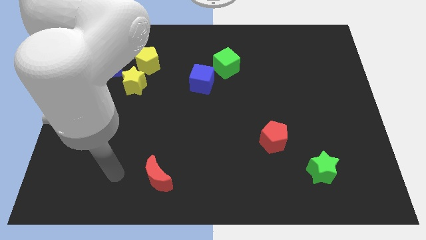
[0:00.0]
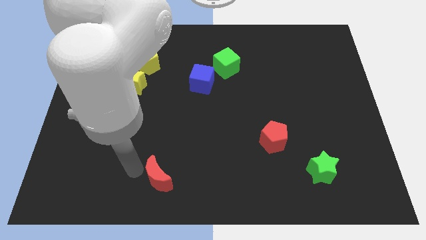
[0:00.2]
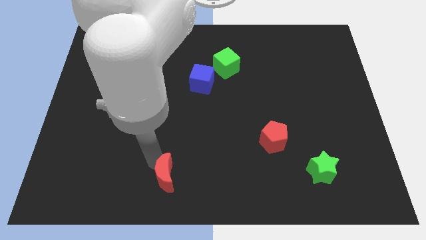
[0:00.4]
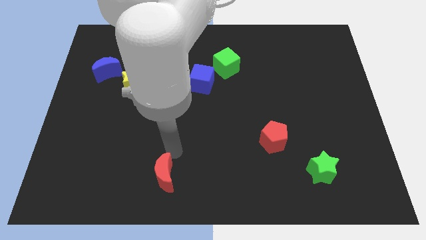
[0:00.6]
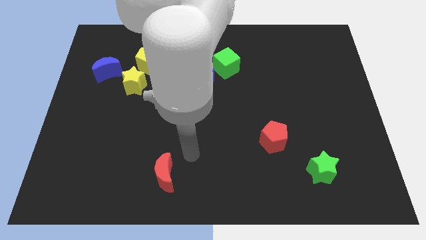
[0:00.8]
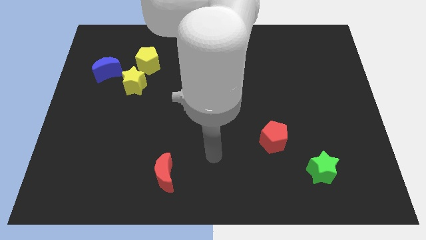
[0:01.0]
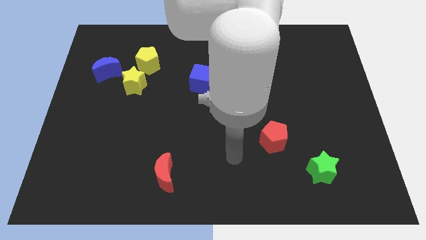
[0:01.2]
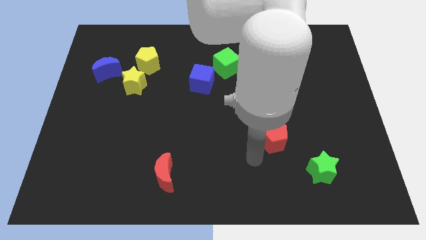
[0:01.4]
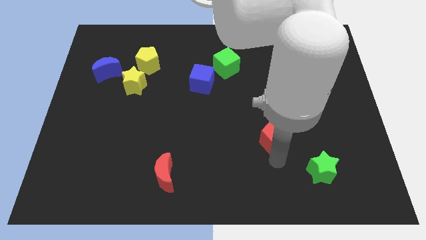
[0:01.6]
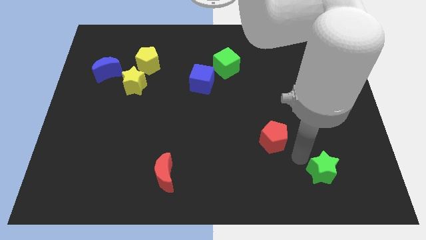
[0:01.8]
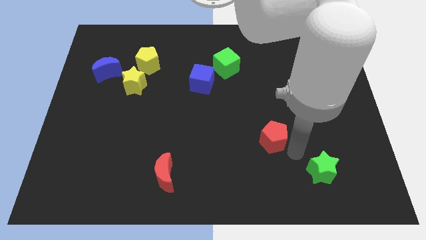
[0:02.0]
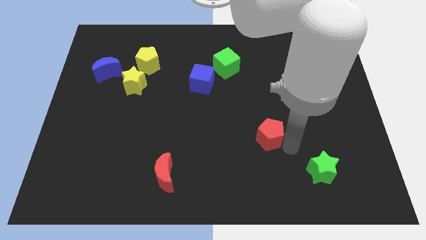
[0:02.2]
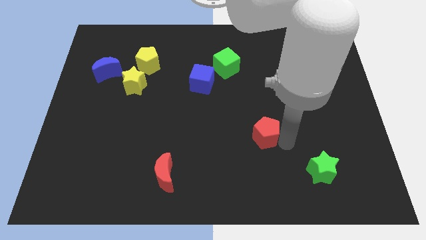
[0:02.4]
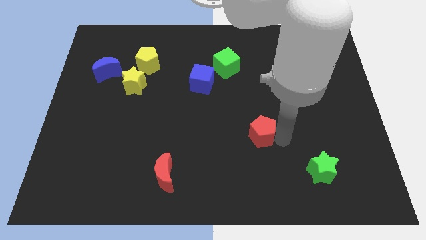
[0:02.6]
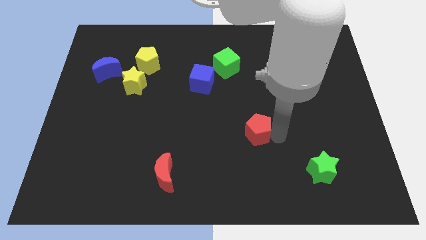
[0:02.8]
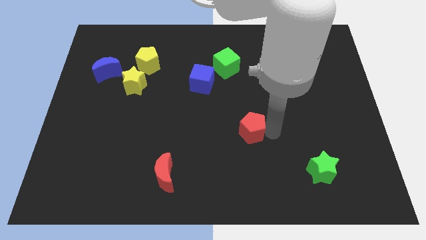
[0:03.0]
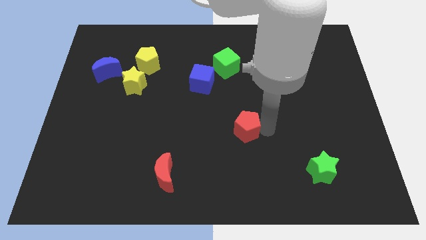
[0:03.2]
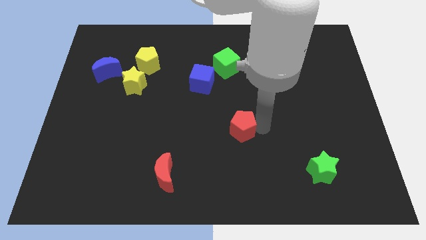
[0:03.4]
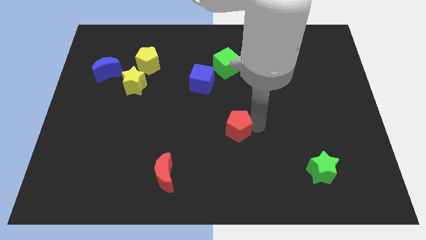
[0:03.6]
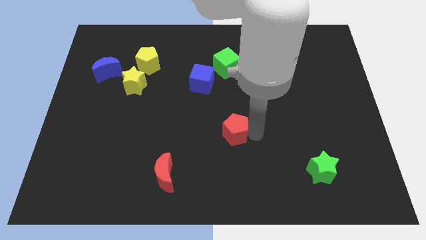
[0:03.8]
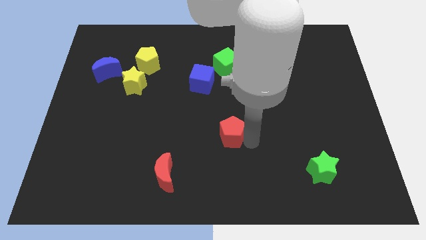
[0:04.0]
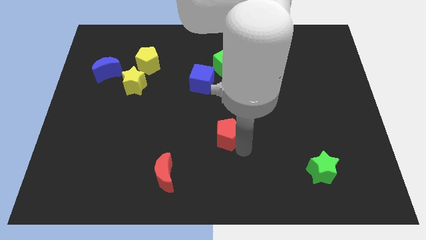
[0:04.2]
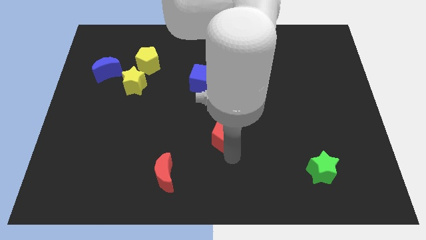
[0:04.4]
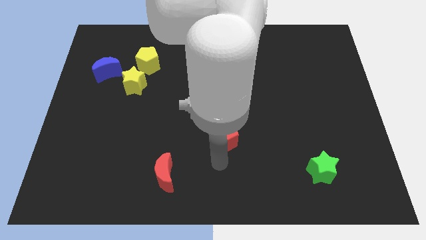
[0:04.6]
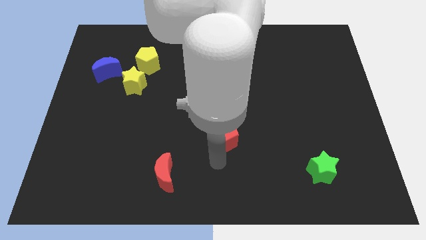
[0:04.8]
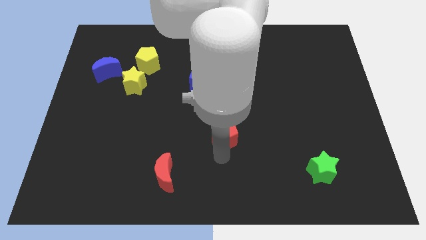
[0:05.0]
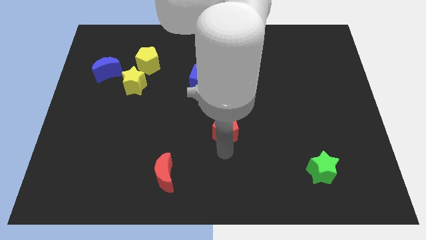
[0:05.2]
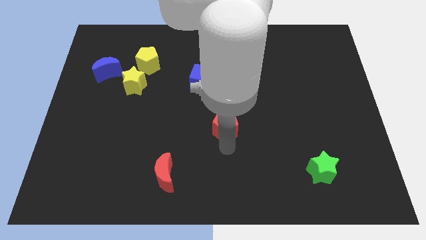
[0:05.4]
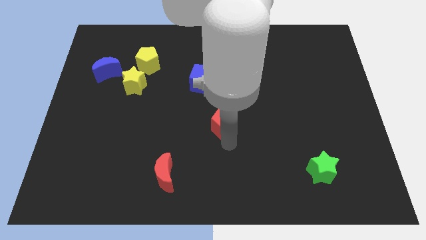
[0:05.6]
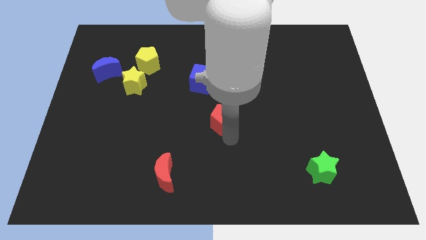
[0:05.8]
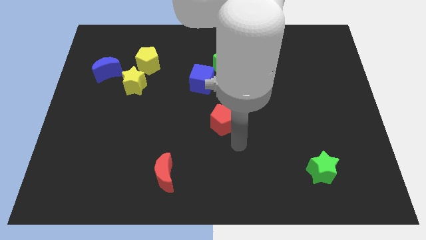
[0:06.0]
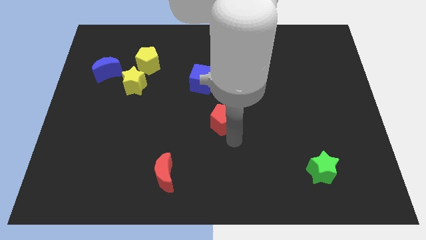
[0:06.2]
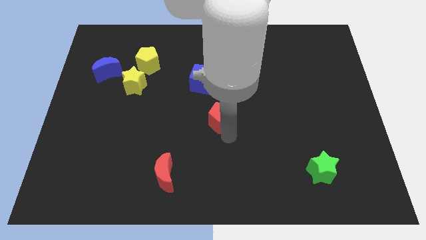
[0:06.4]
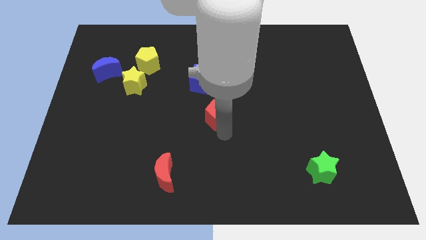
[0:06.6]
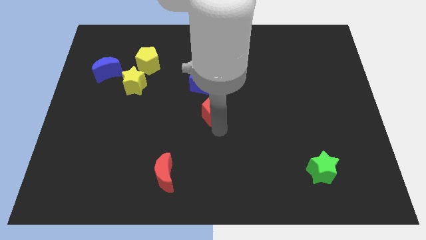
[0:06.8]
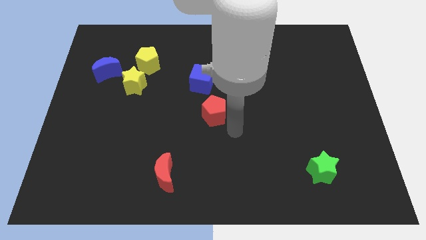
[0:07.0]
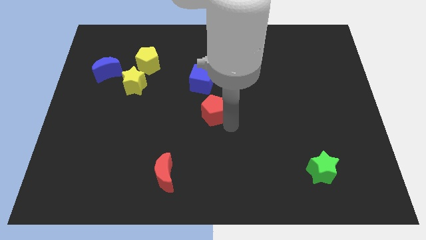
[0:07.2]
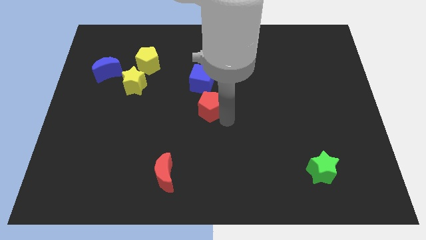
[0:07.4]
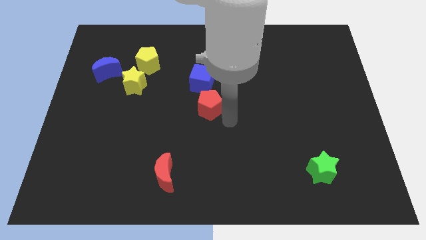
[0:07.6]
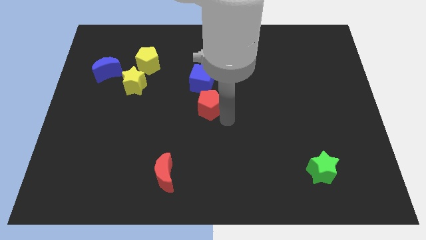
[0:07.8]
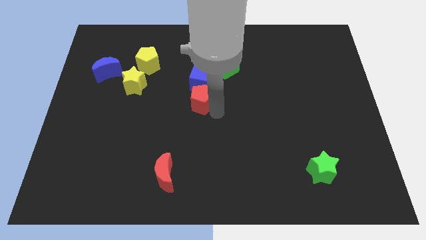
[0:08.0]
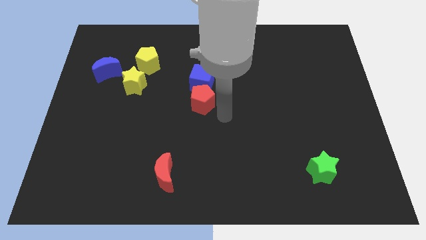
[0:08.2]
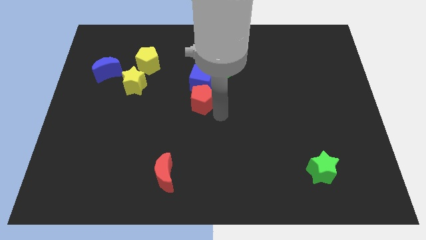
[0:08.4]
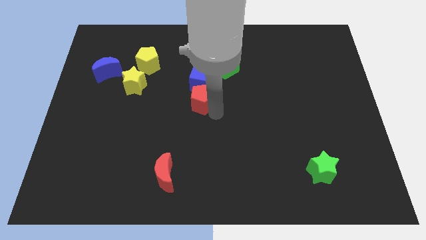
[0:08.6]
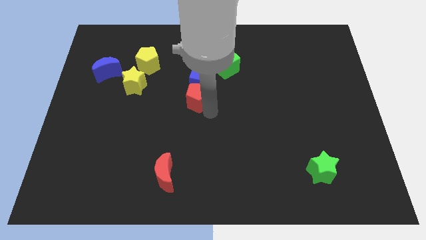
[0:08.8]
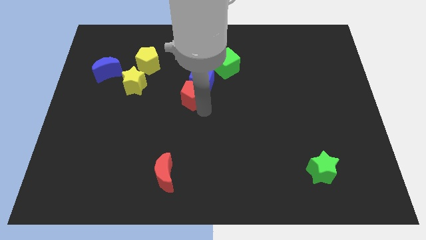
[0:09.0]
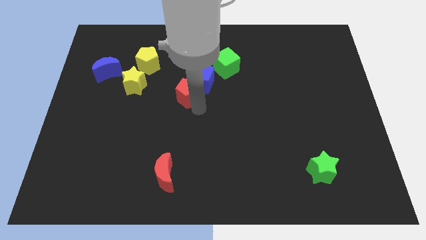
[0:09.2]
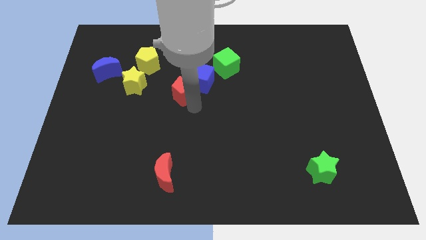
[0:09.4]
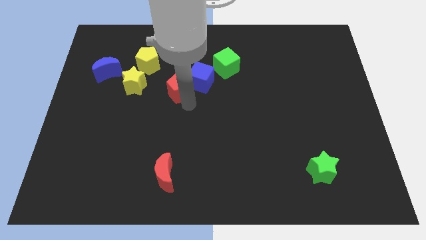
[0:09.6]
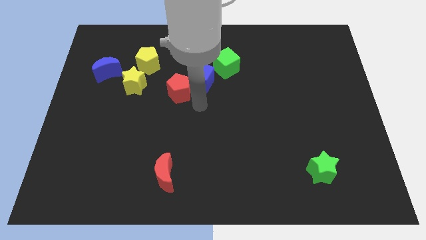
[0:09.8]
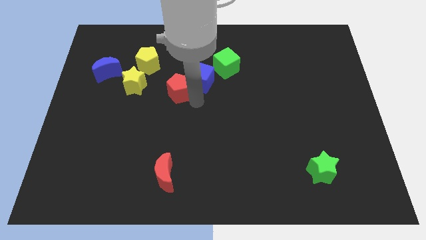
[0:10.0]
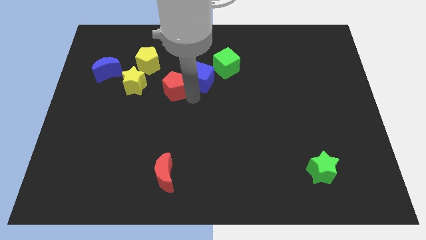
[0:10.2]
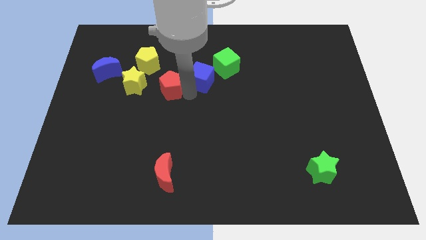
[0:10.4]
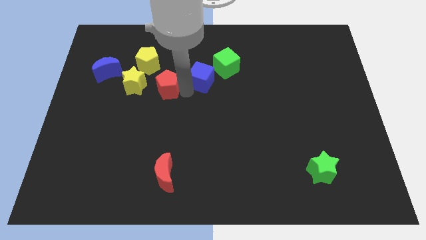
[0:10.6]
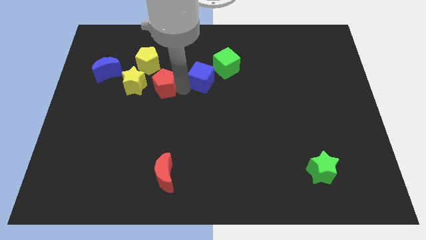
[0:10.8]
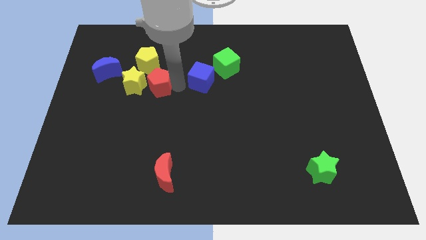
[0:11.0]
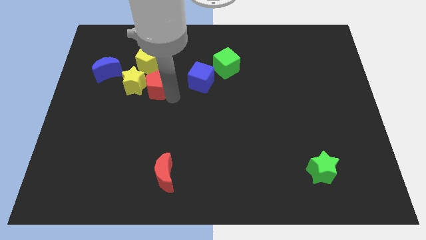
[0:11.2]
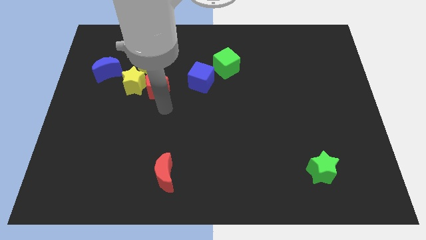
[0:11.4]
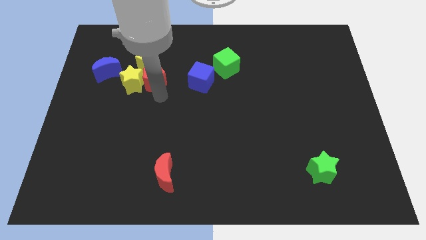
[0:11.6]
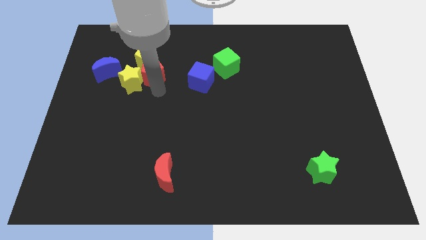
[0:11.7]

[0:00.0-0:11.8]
slide the red pentagon towards the yellow pentagon

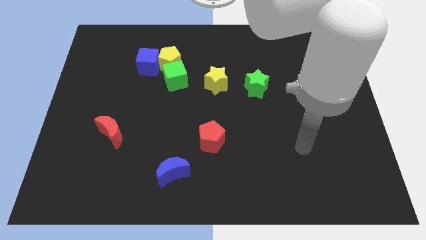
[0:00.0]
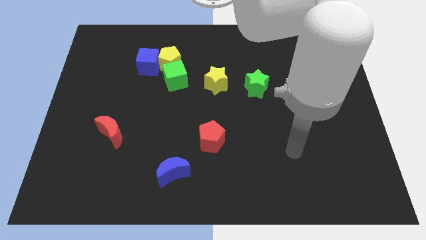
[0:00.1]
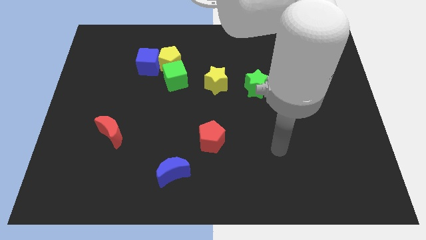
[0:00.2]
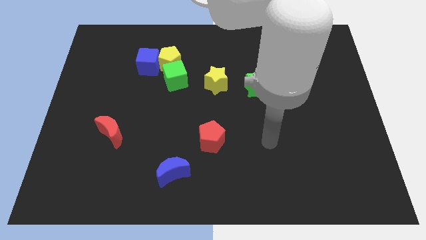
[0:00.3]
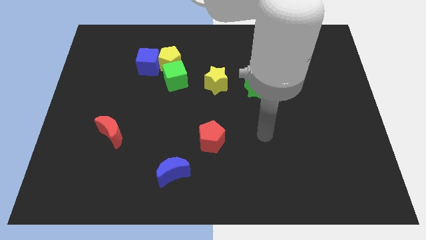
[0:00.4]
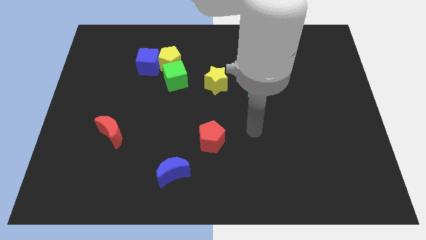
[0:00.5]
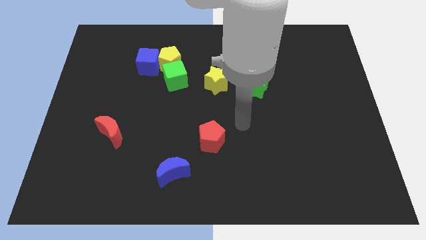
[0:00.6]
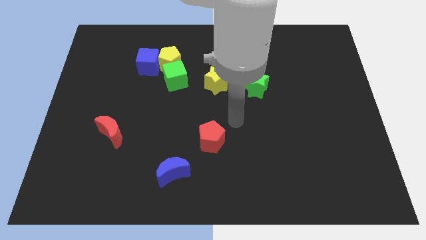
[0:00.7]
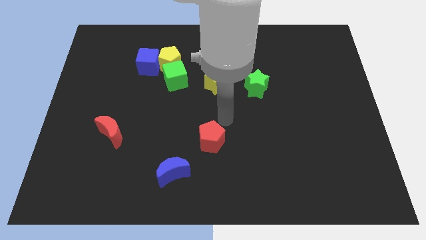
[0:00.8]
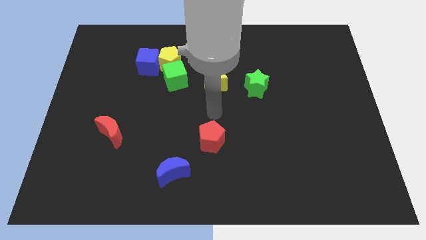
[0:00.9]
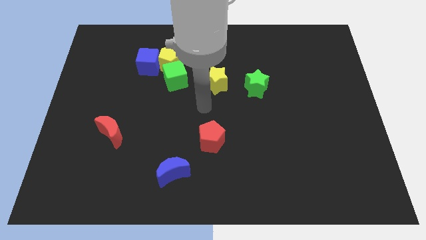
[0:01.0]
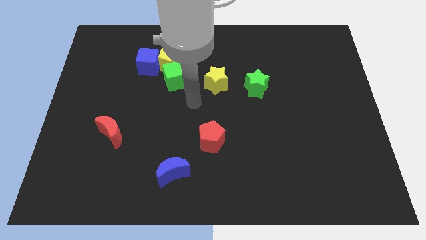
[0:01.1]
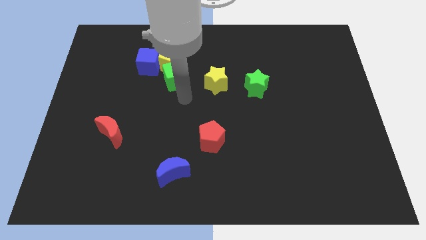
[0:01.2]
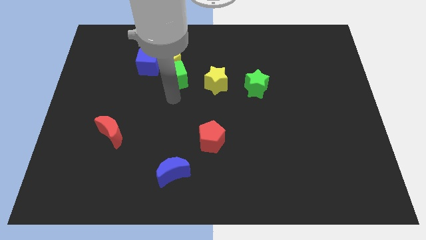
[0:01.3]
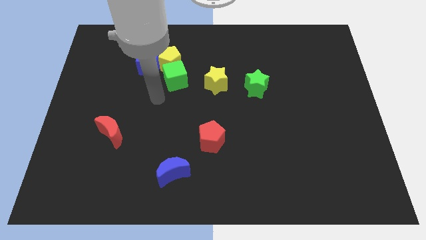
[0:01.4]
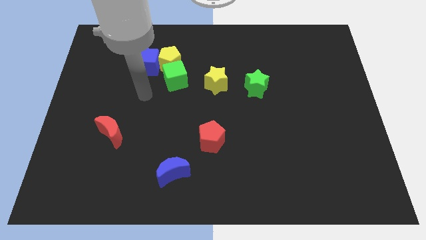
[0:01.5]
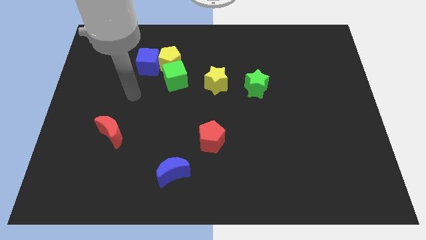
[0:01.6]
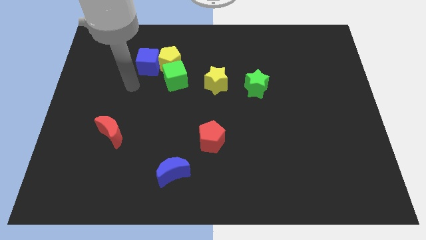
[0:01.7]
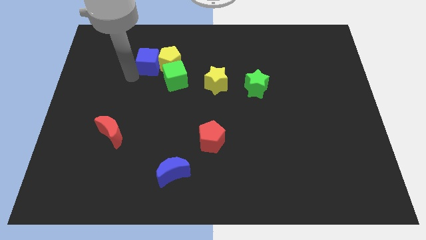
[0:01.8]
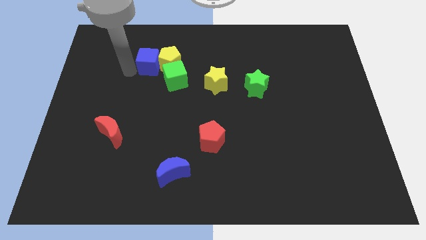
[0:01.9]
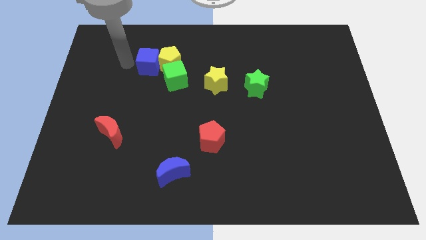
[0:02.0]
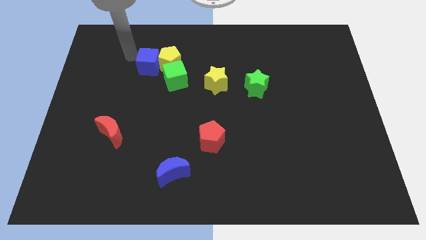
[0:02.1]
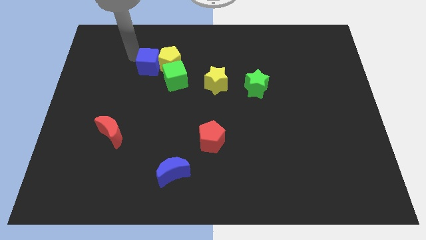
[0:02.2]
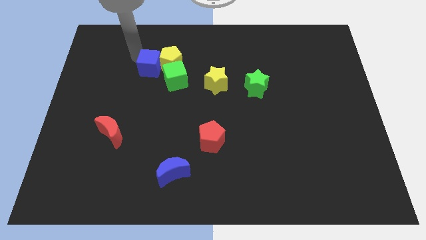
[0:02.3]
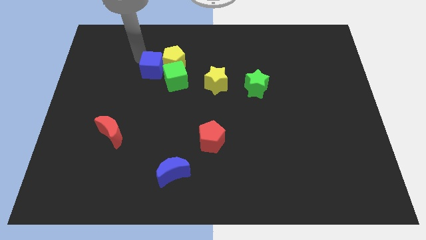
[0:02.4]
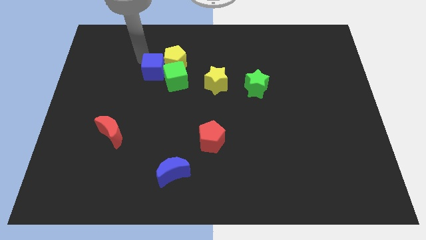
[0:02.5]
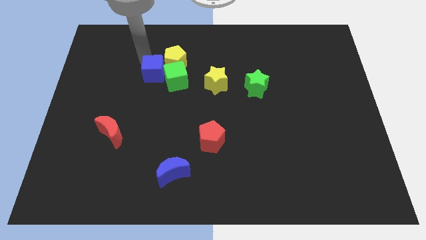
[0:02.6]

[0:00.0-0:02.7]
slide the blue cube next to the green cube
